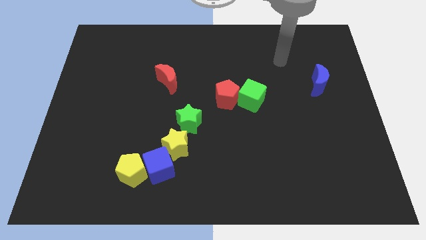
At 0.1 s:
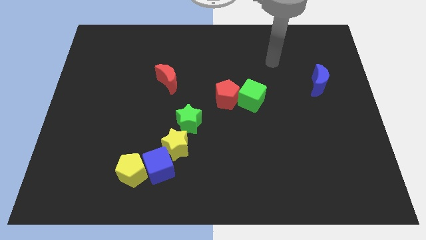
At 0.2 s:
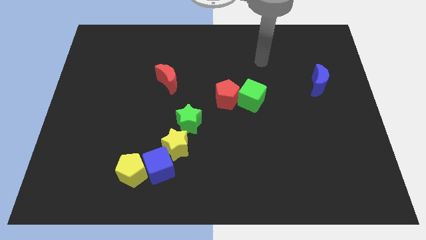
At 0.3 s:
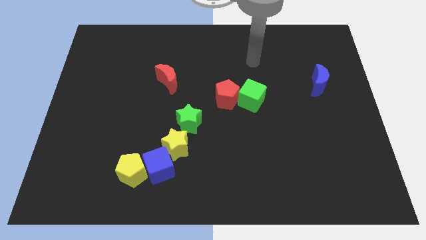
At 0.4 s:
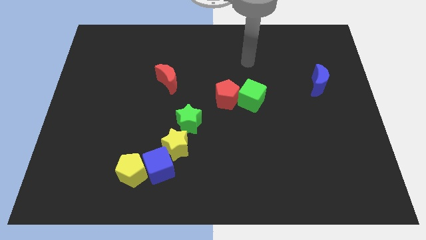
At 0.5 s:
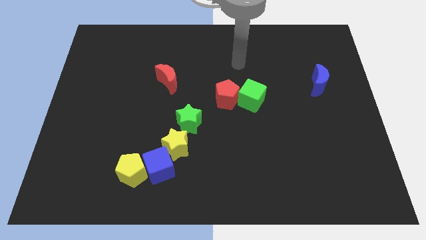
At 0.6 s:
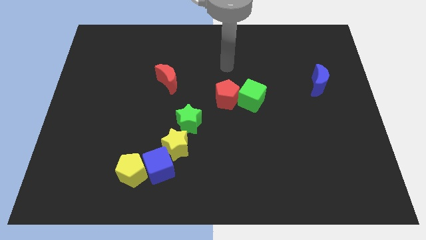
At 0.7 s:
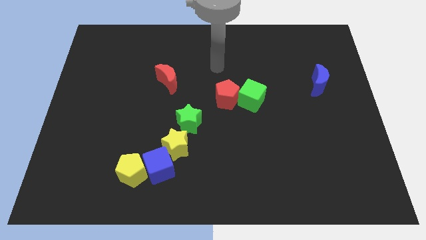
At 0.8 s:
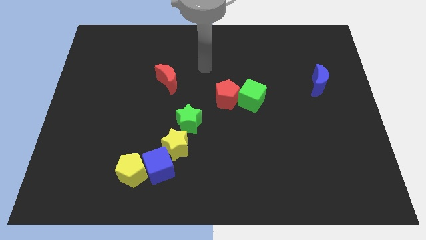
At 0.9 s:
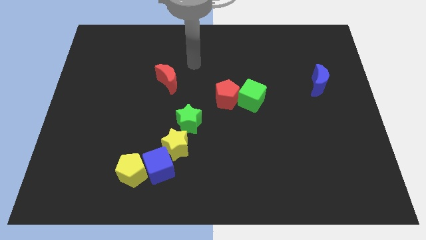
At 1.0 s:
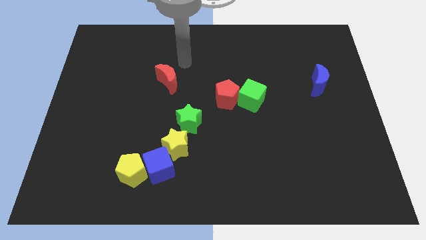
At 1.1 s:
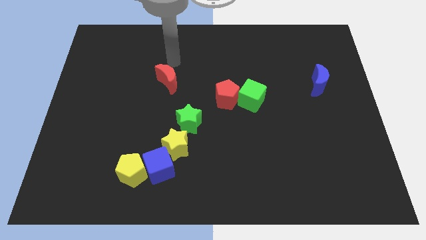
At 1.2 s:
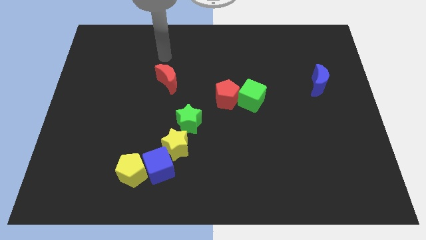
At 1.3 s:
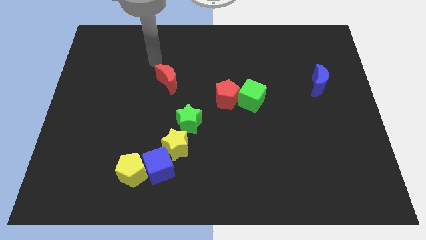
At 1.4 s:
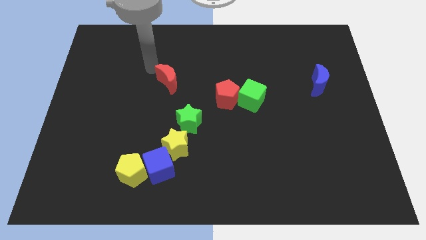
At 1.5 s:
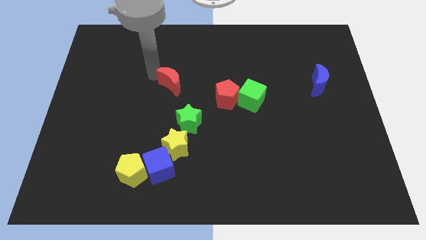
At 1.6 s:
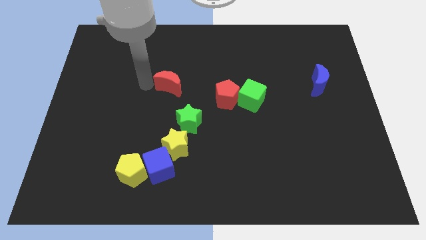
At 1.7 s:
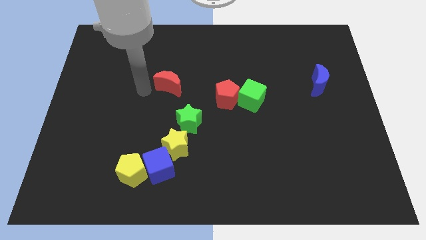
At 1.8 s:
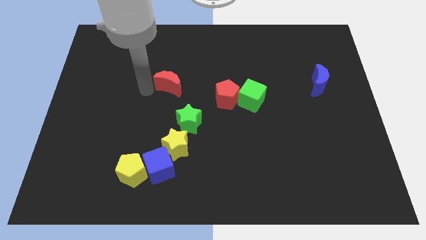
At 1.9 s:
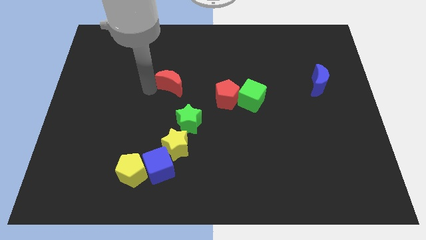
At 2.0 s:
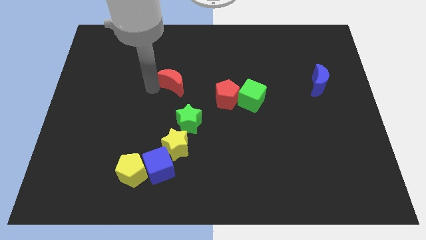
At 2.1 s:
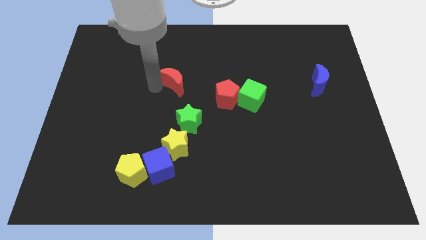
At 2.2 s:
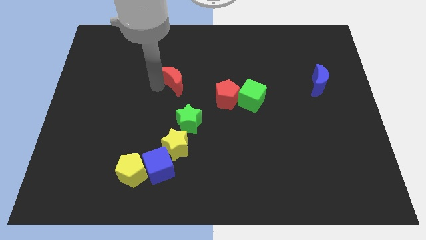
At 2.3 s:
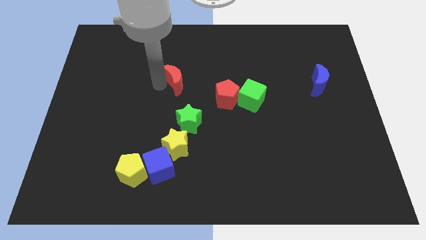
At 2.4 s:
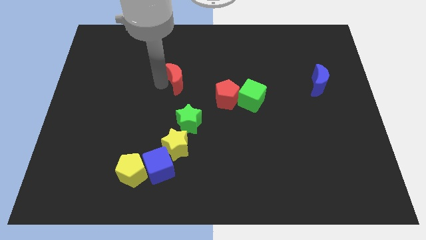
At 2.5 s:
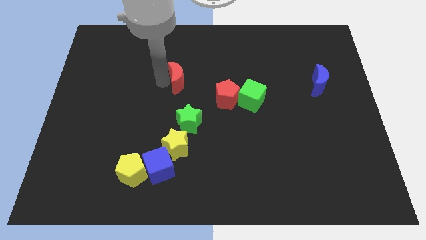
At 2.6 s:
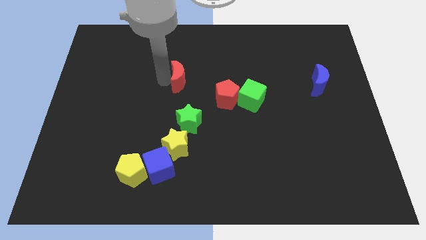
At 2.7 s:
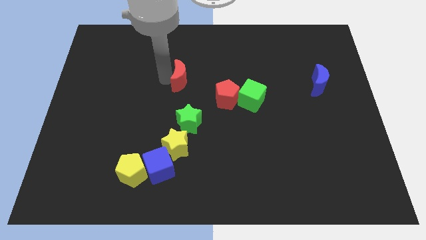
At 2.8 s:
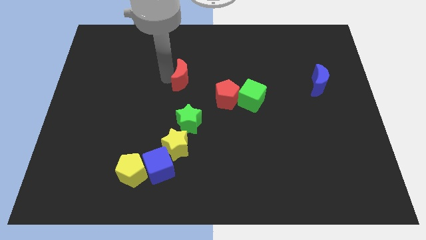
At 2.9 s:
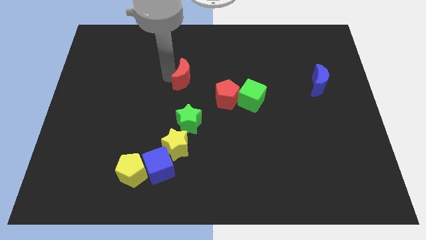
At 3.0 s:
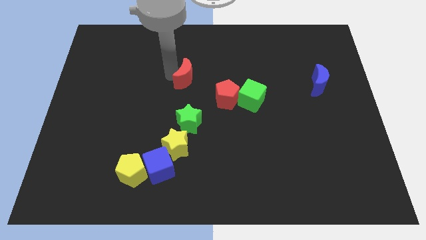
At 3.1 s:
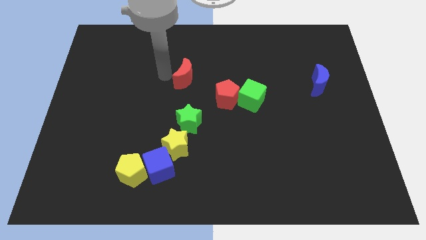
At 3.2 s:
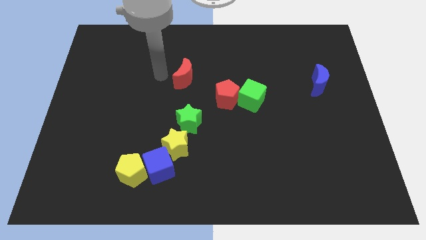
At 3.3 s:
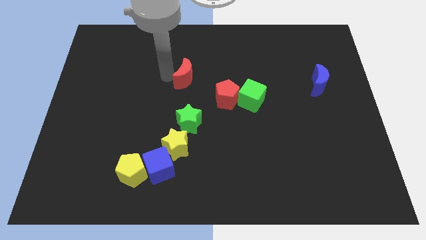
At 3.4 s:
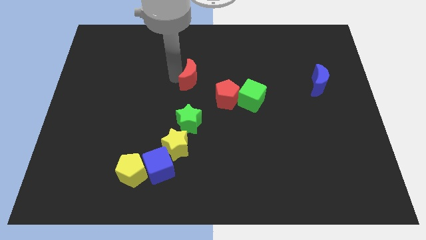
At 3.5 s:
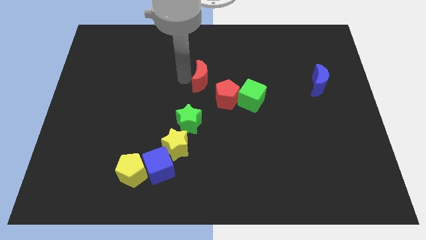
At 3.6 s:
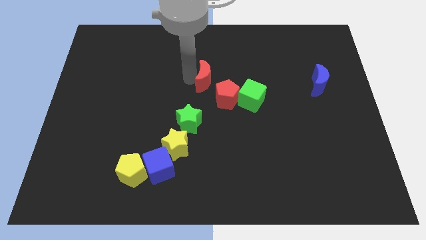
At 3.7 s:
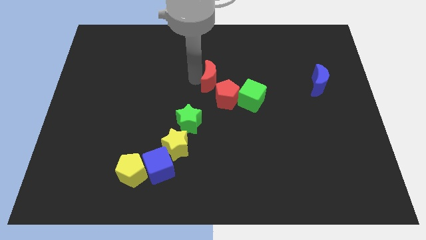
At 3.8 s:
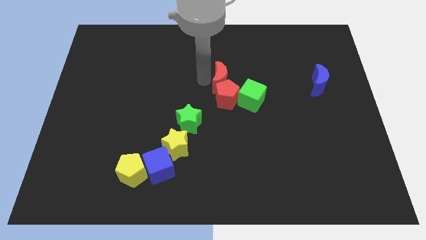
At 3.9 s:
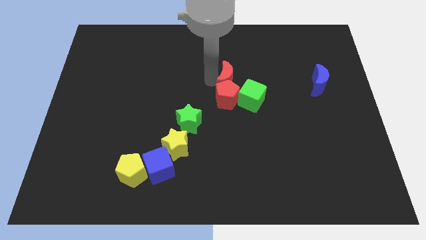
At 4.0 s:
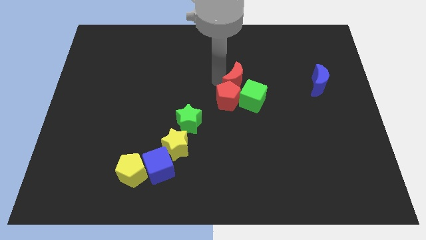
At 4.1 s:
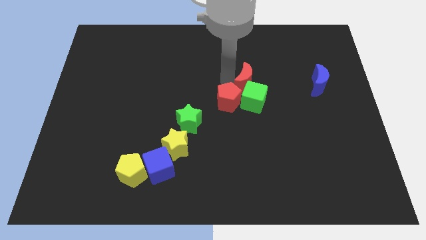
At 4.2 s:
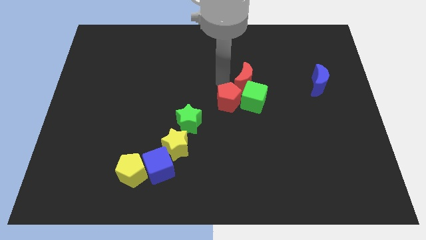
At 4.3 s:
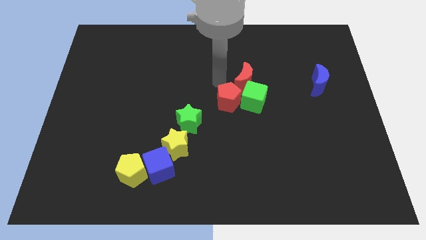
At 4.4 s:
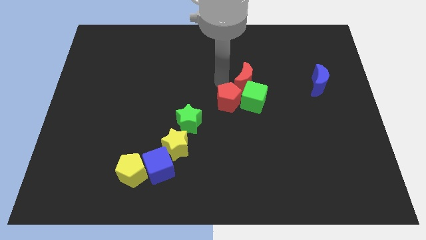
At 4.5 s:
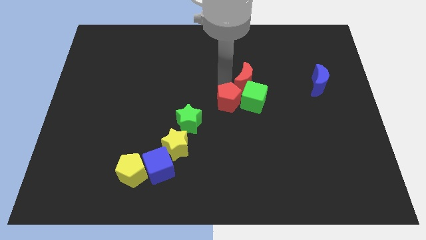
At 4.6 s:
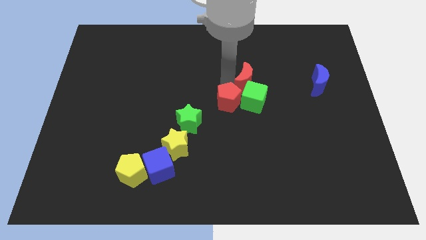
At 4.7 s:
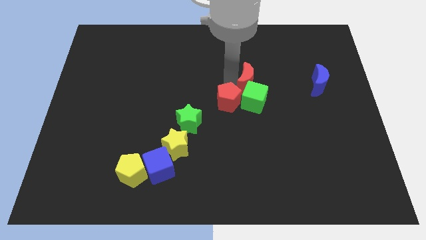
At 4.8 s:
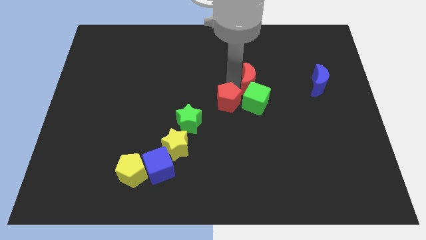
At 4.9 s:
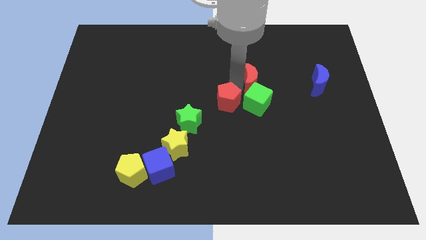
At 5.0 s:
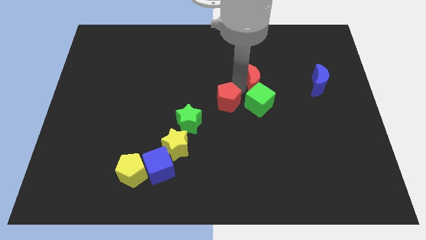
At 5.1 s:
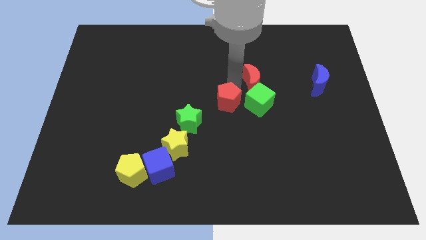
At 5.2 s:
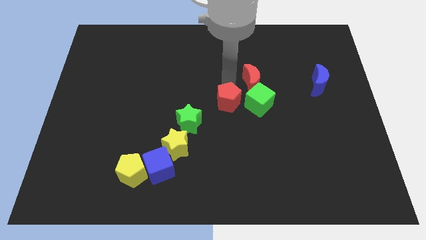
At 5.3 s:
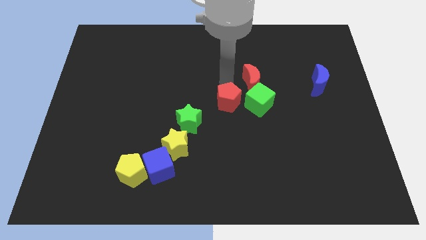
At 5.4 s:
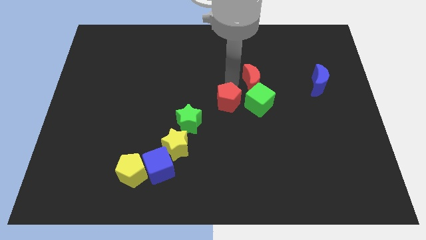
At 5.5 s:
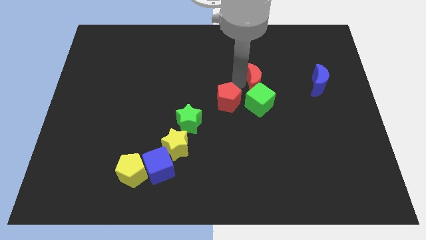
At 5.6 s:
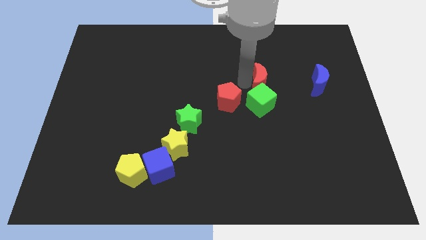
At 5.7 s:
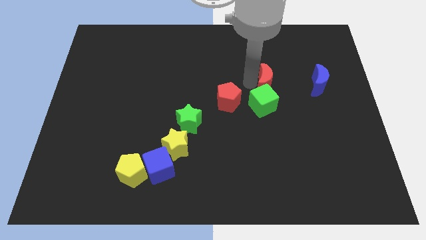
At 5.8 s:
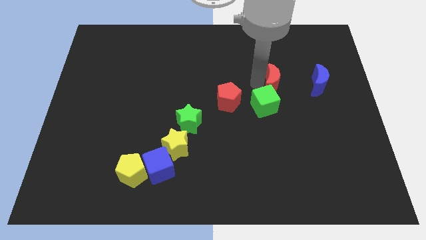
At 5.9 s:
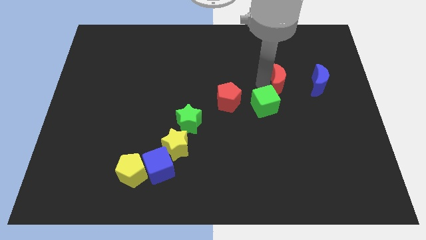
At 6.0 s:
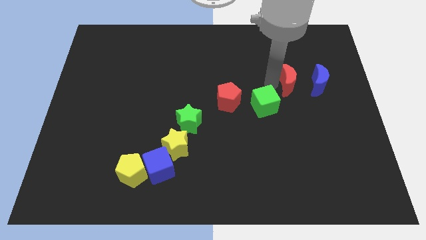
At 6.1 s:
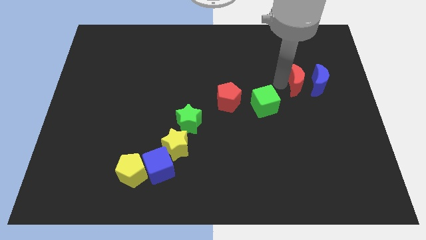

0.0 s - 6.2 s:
push the red moon towards the blue moon

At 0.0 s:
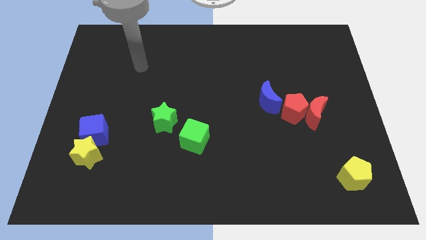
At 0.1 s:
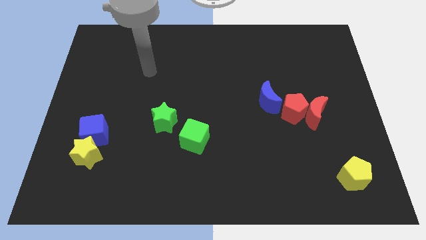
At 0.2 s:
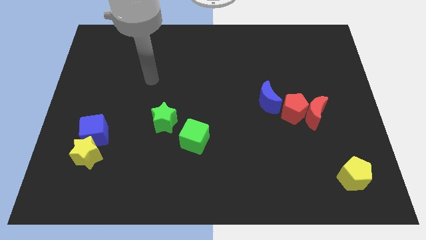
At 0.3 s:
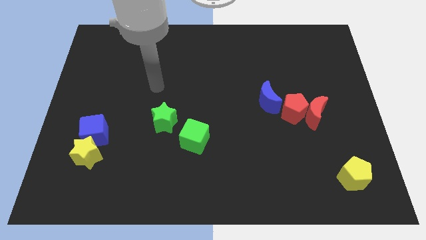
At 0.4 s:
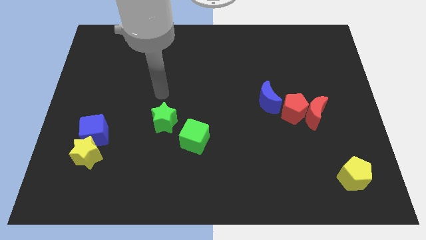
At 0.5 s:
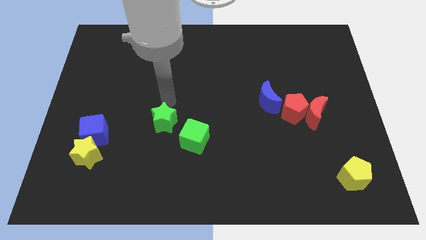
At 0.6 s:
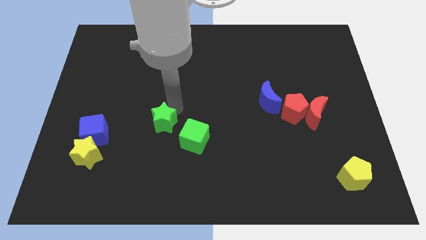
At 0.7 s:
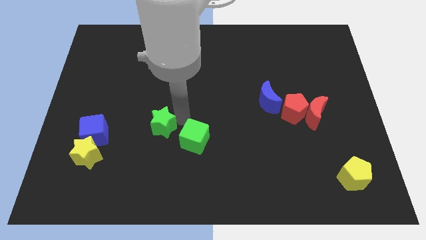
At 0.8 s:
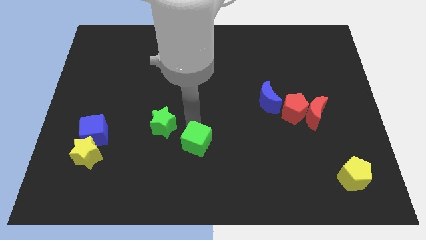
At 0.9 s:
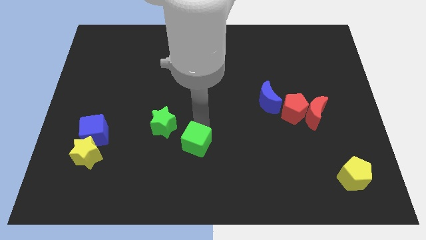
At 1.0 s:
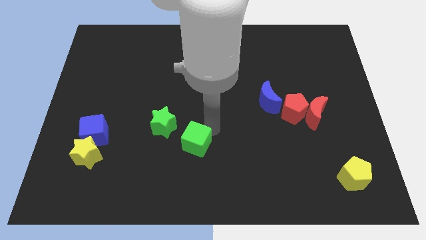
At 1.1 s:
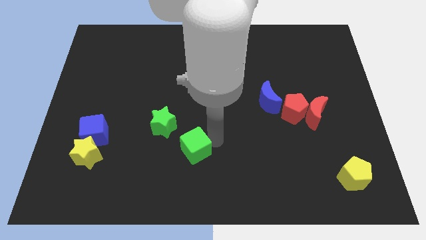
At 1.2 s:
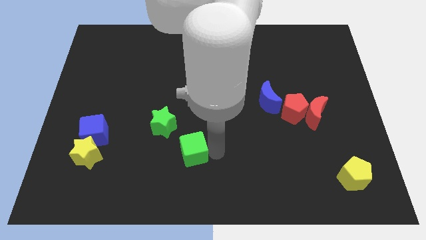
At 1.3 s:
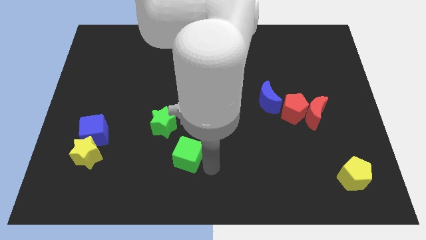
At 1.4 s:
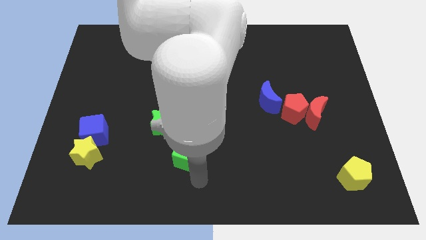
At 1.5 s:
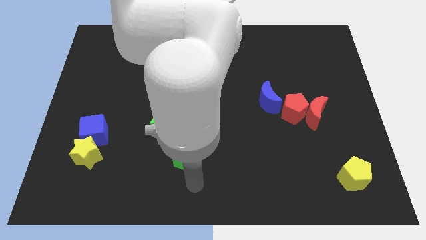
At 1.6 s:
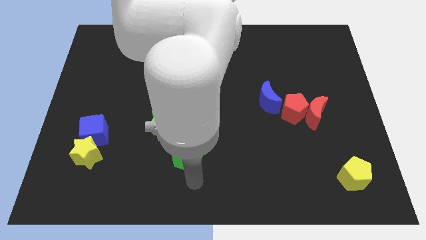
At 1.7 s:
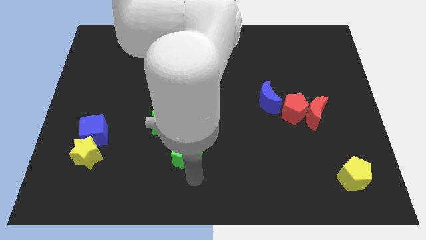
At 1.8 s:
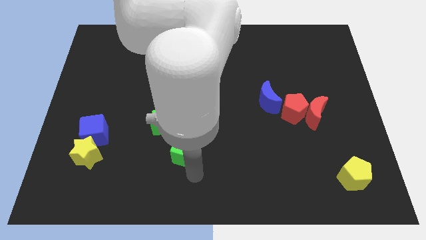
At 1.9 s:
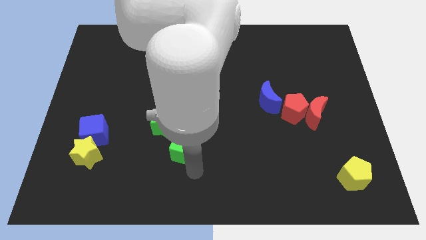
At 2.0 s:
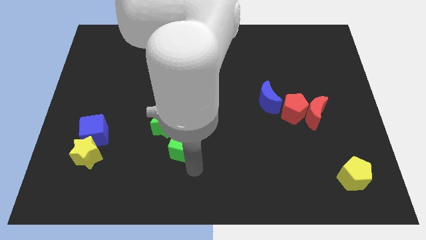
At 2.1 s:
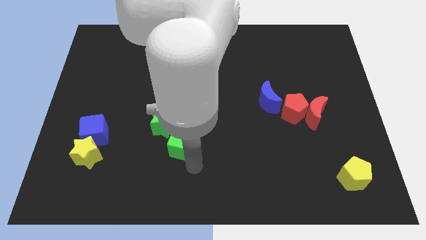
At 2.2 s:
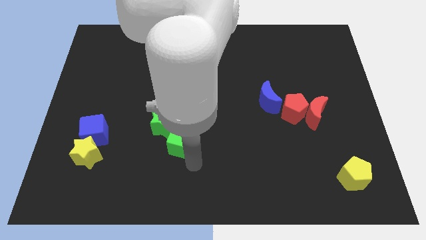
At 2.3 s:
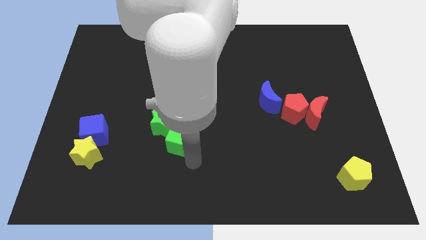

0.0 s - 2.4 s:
move the green cube close to the green star
